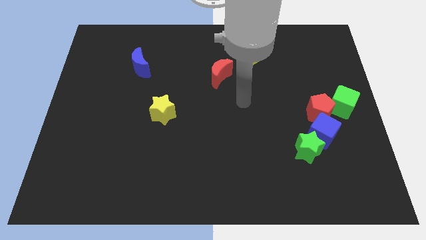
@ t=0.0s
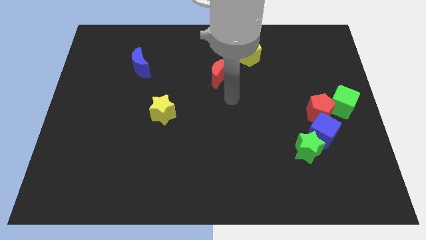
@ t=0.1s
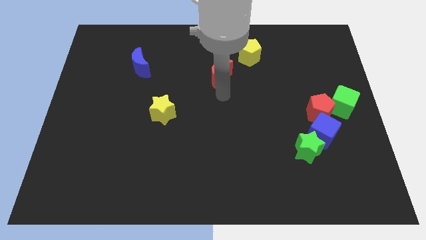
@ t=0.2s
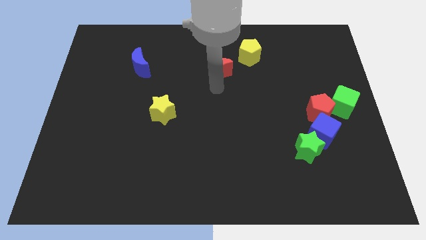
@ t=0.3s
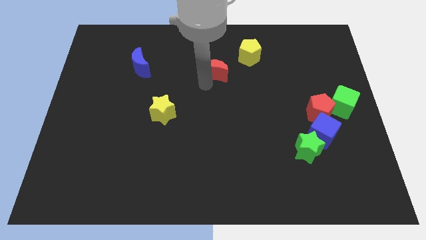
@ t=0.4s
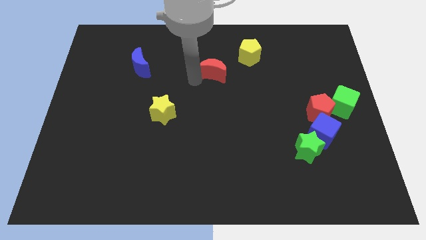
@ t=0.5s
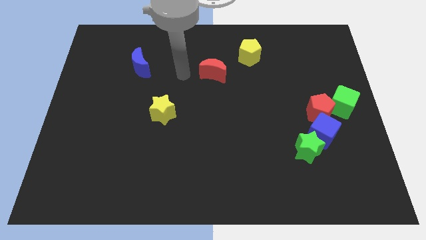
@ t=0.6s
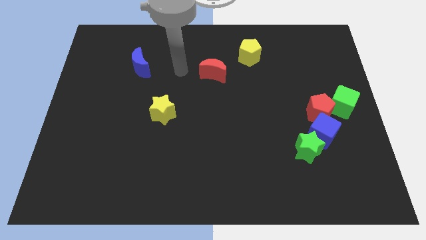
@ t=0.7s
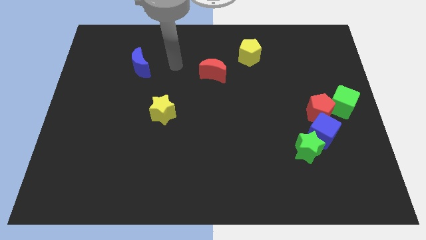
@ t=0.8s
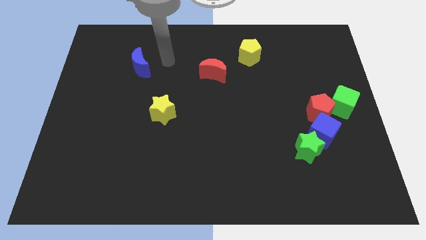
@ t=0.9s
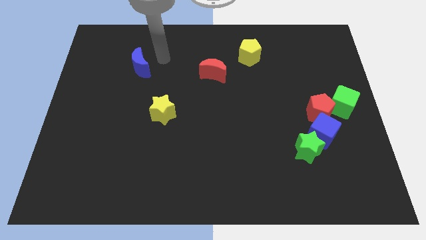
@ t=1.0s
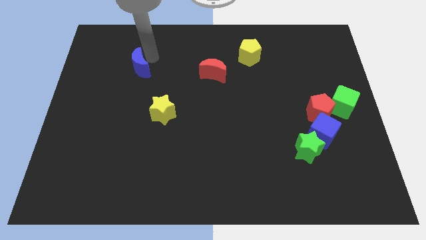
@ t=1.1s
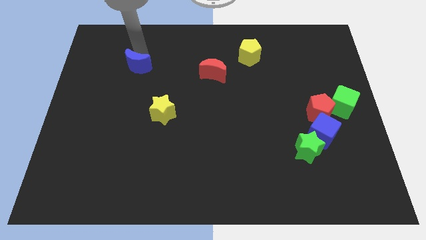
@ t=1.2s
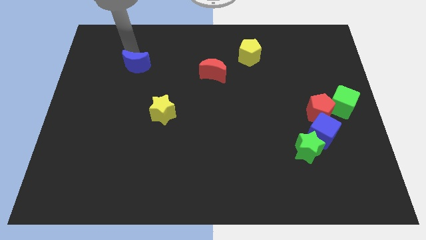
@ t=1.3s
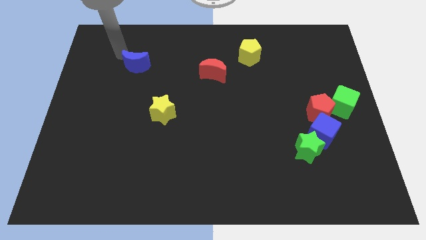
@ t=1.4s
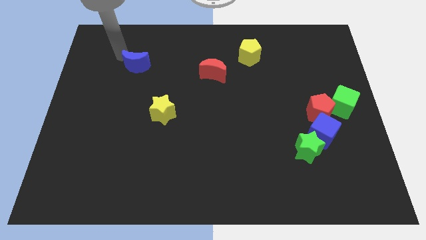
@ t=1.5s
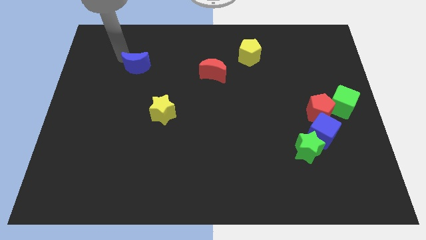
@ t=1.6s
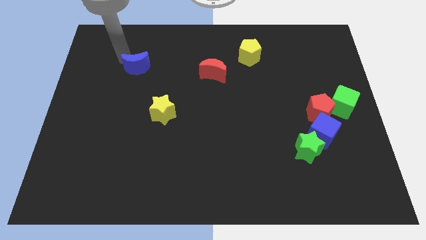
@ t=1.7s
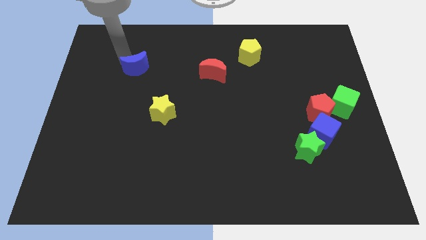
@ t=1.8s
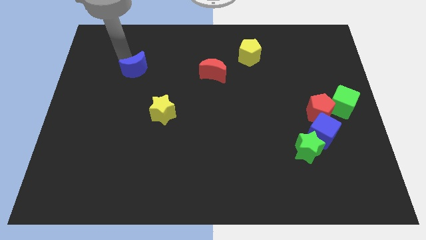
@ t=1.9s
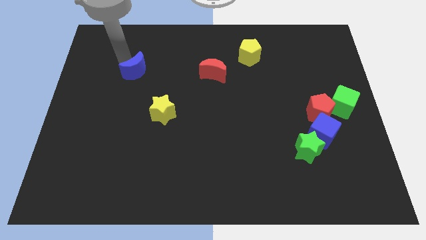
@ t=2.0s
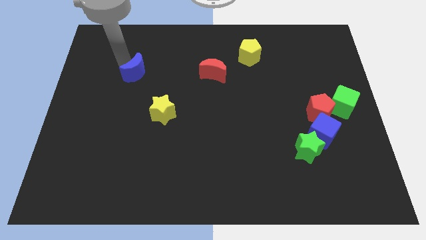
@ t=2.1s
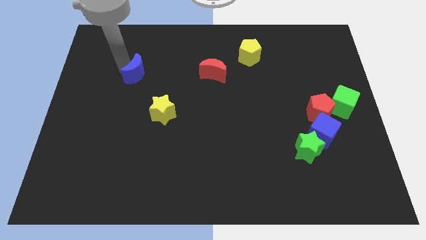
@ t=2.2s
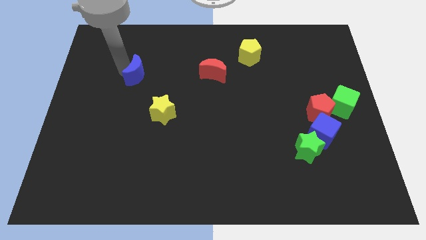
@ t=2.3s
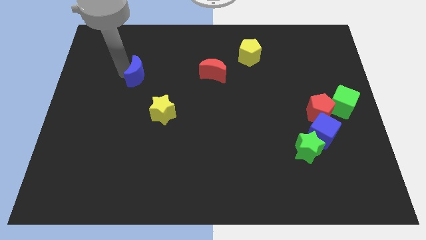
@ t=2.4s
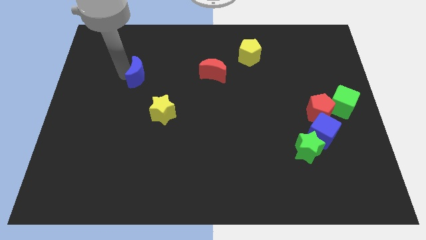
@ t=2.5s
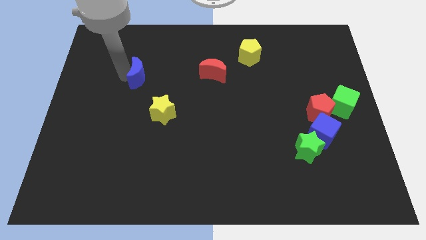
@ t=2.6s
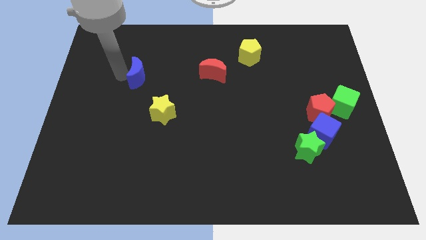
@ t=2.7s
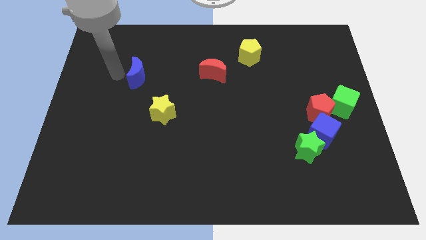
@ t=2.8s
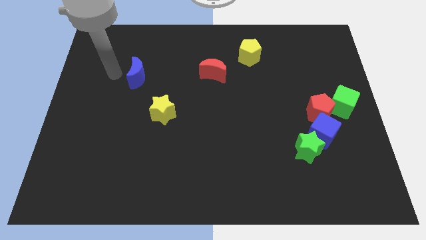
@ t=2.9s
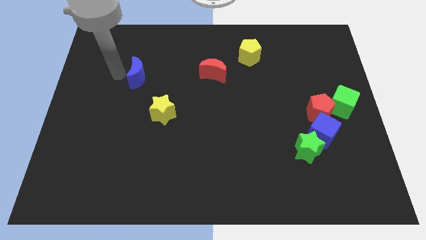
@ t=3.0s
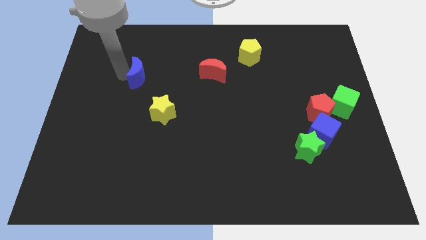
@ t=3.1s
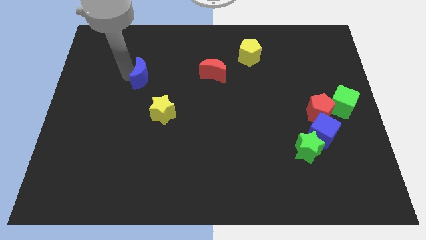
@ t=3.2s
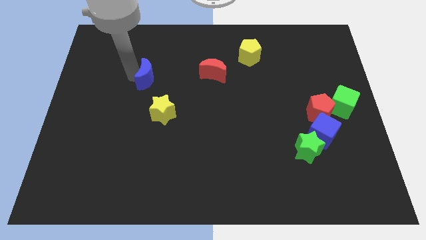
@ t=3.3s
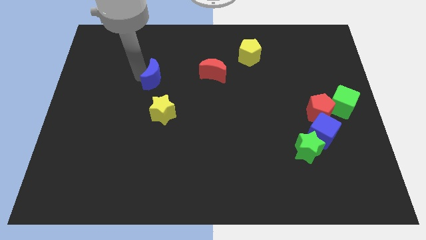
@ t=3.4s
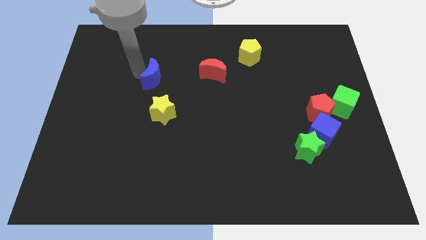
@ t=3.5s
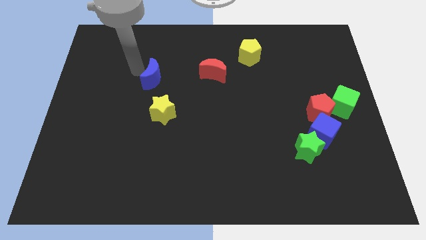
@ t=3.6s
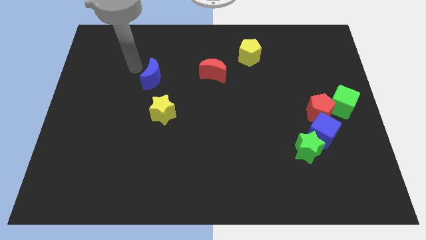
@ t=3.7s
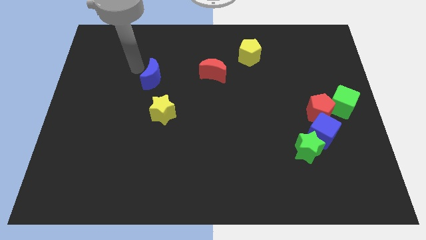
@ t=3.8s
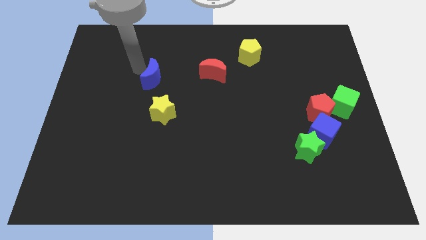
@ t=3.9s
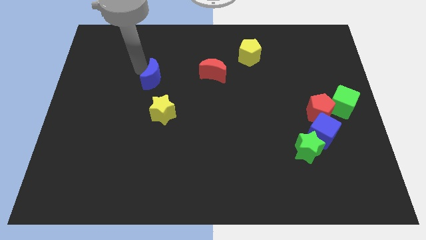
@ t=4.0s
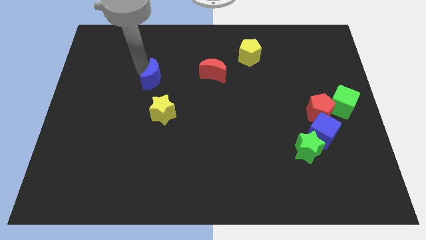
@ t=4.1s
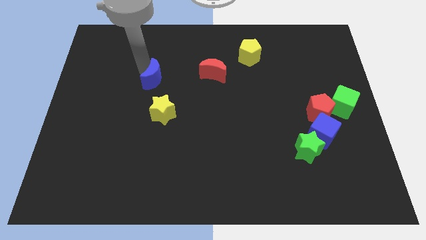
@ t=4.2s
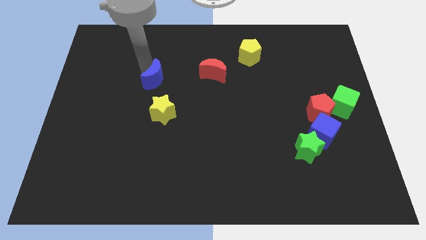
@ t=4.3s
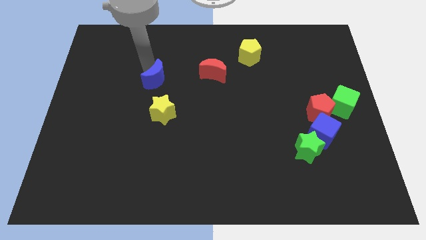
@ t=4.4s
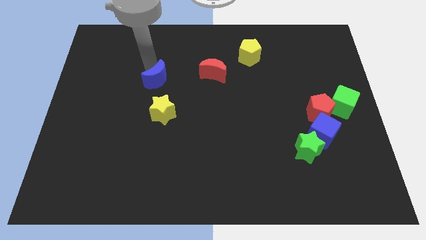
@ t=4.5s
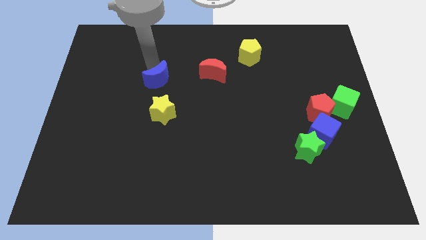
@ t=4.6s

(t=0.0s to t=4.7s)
push the blue moon diagonally downwards and to the right a little bit

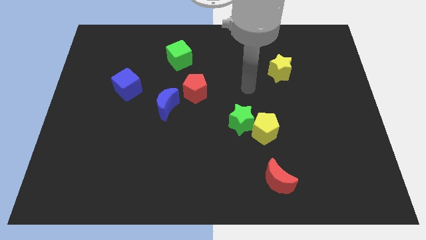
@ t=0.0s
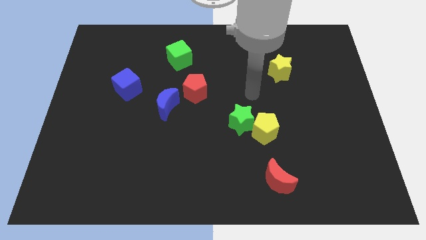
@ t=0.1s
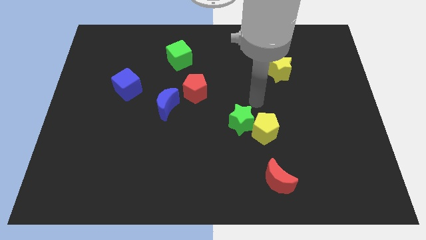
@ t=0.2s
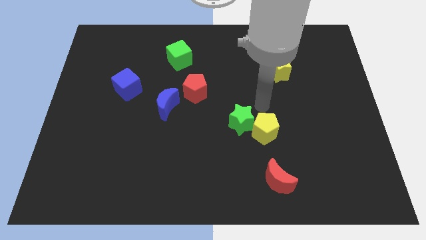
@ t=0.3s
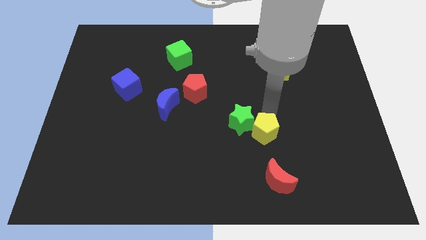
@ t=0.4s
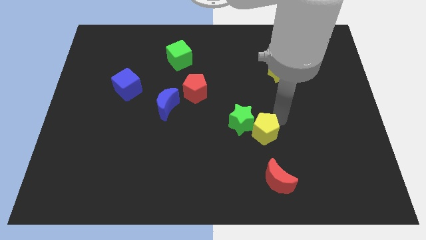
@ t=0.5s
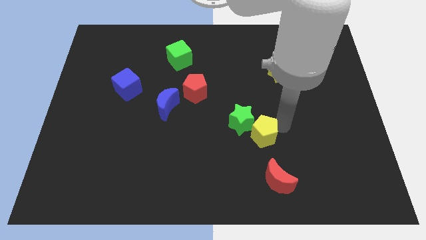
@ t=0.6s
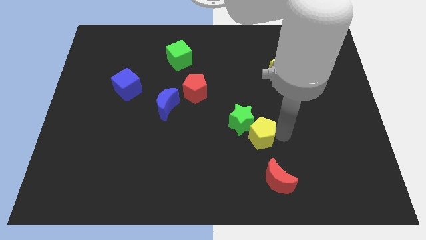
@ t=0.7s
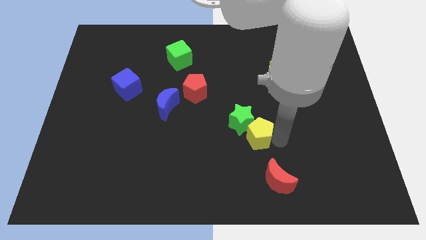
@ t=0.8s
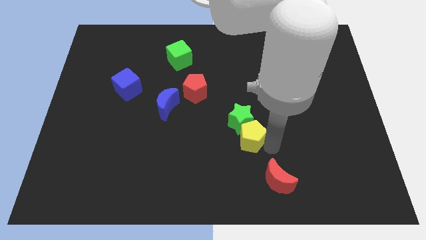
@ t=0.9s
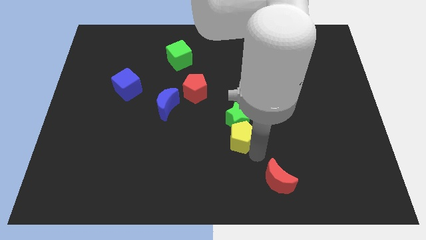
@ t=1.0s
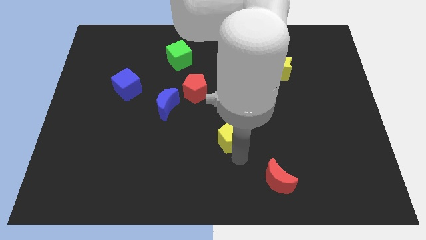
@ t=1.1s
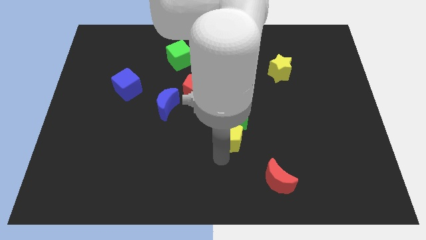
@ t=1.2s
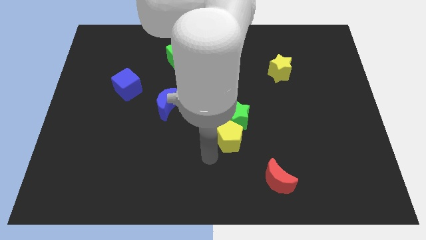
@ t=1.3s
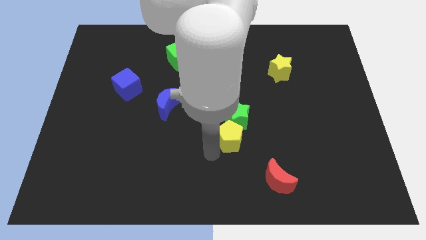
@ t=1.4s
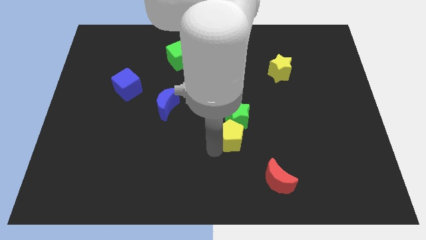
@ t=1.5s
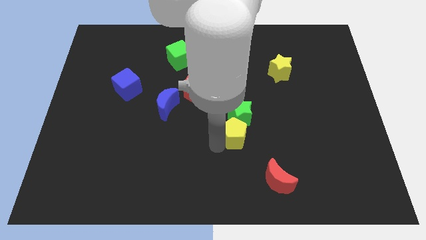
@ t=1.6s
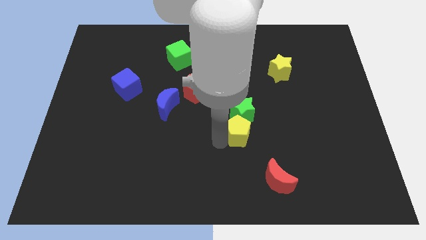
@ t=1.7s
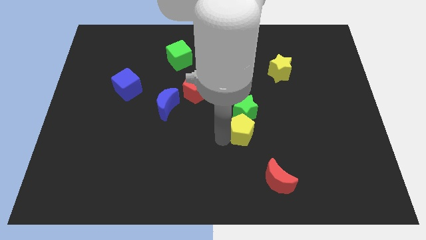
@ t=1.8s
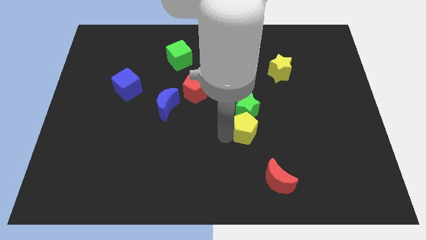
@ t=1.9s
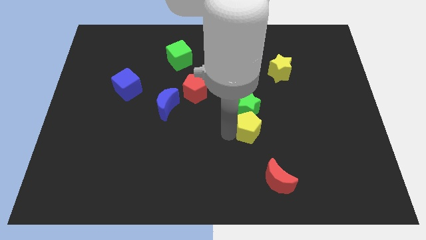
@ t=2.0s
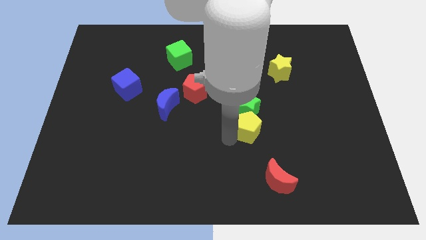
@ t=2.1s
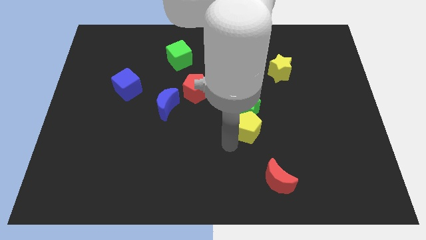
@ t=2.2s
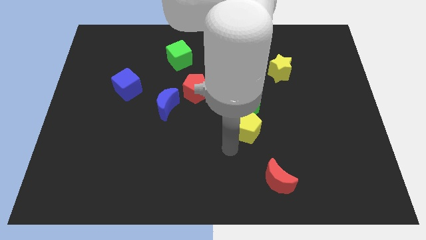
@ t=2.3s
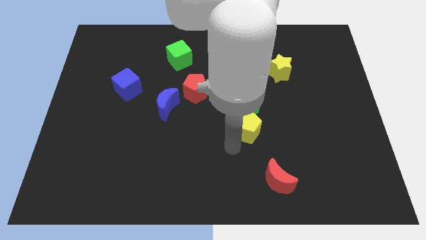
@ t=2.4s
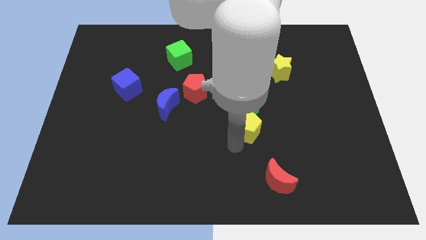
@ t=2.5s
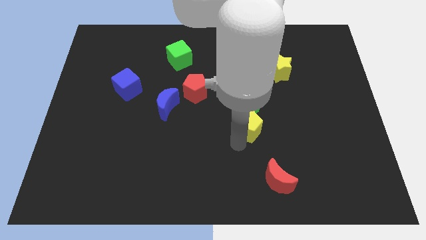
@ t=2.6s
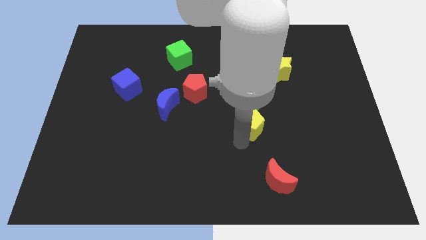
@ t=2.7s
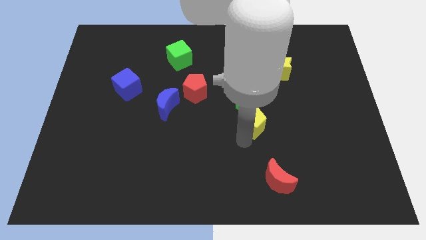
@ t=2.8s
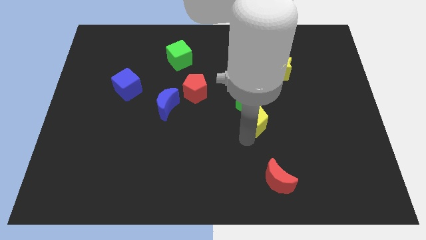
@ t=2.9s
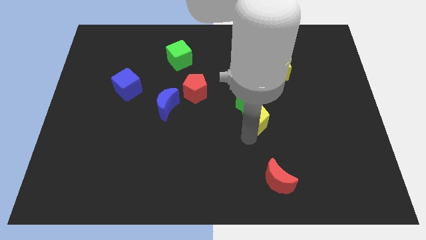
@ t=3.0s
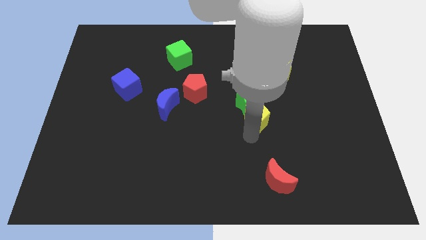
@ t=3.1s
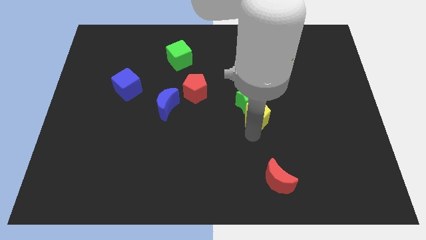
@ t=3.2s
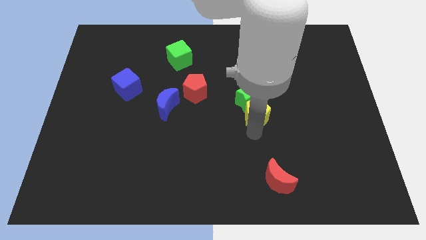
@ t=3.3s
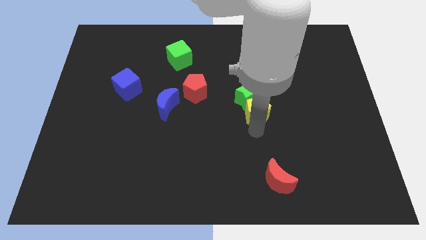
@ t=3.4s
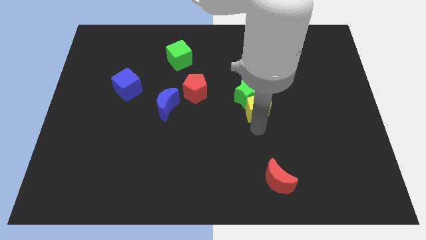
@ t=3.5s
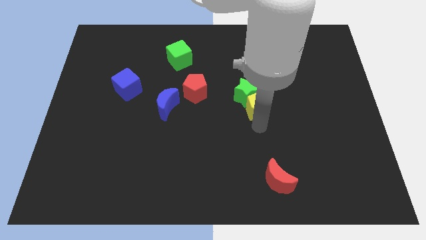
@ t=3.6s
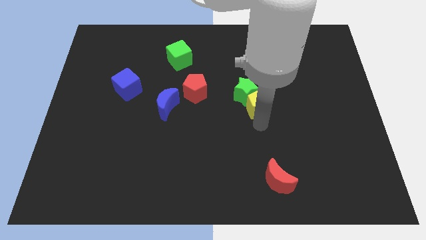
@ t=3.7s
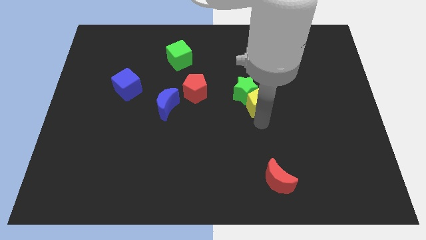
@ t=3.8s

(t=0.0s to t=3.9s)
slightly slide the yellow pentagon up
